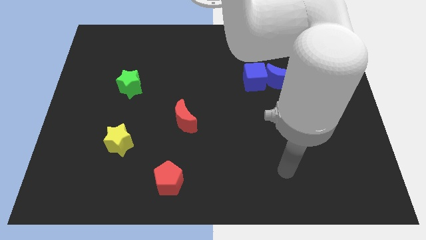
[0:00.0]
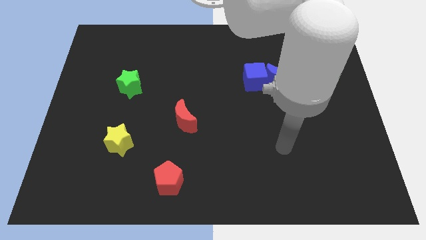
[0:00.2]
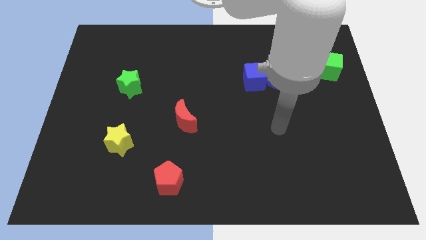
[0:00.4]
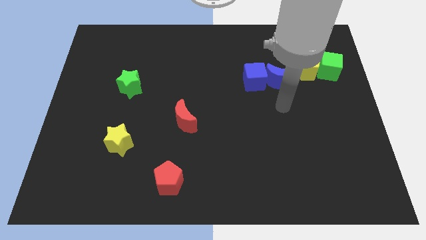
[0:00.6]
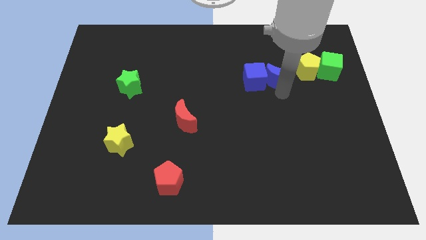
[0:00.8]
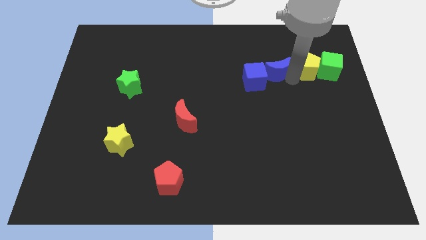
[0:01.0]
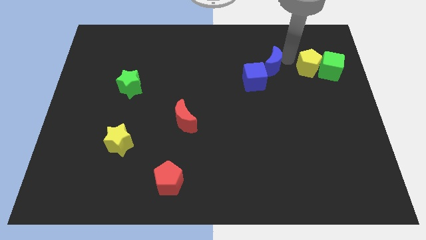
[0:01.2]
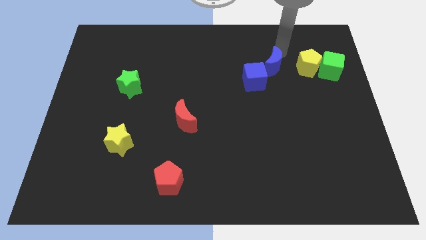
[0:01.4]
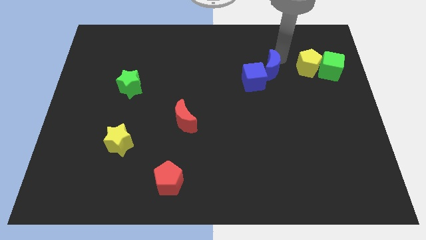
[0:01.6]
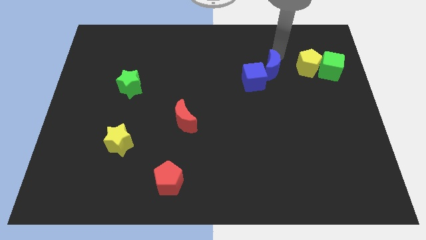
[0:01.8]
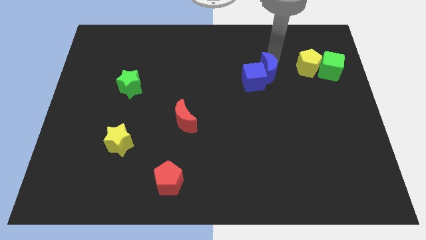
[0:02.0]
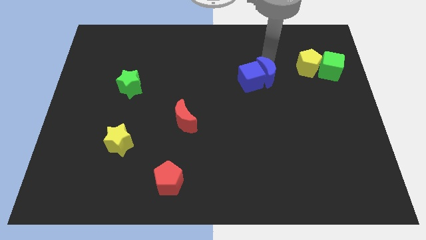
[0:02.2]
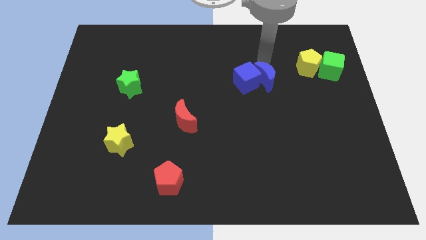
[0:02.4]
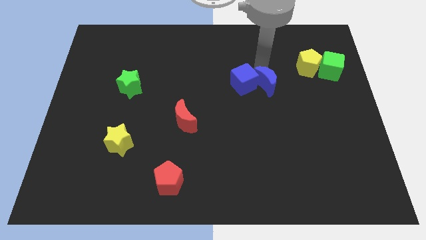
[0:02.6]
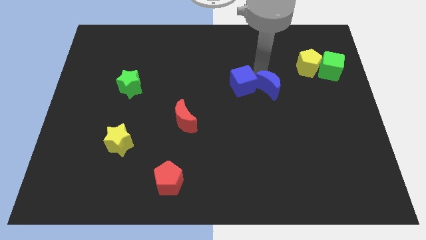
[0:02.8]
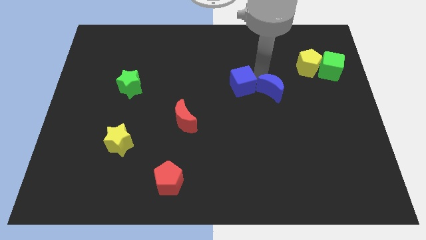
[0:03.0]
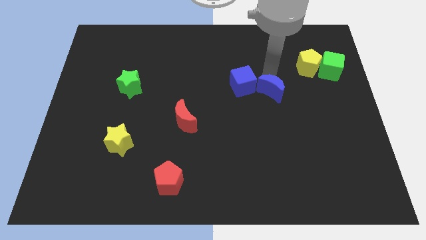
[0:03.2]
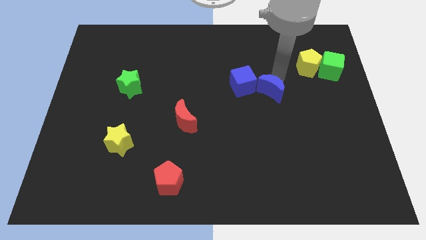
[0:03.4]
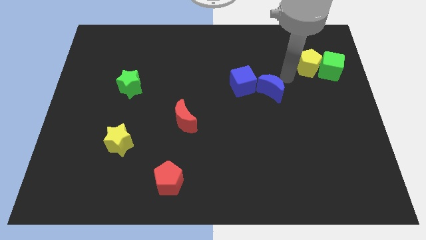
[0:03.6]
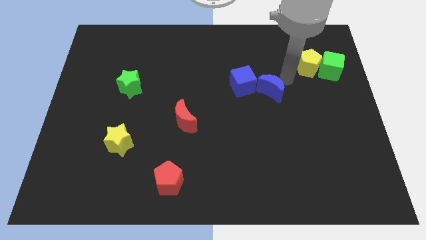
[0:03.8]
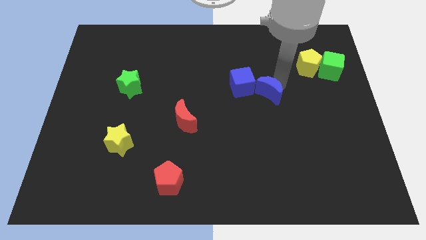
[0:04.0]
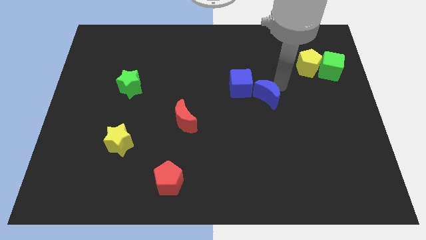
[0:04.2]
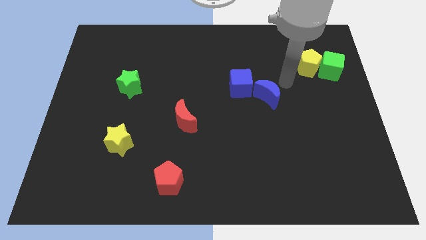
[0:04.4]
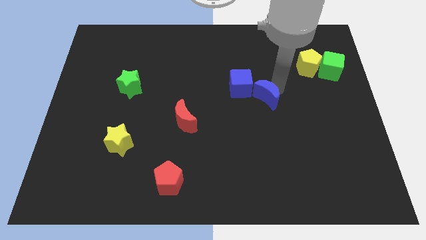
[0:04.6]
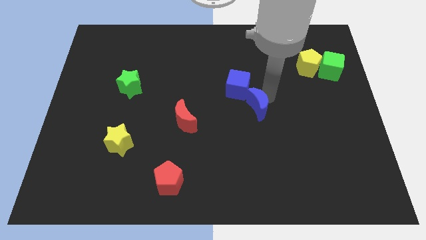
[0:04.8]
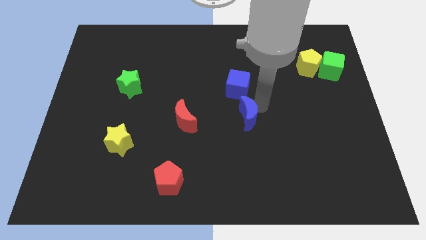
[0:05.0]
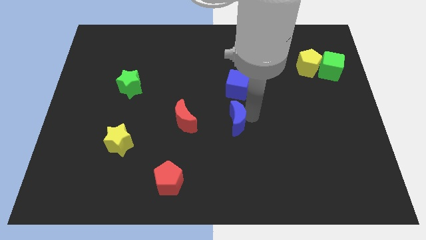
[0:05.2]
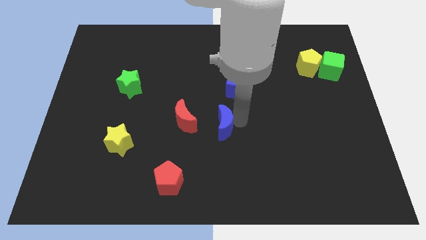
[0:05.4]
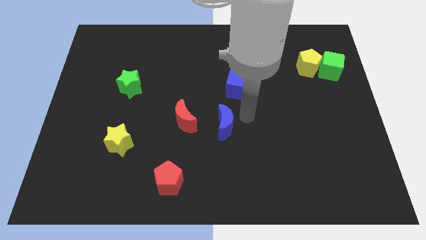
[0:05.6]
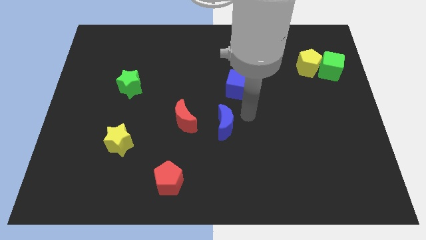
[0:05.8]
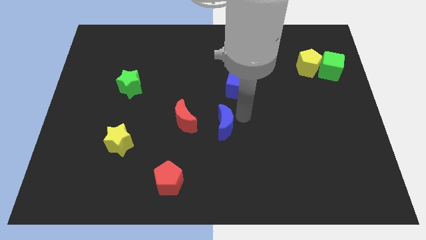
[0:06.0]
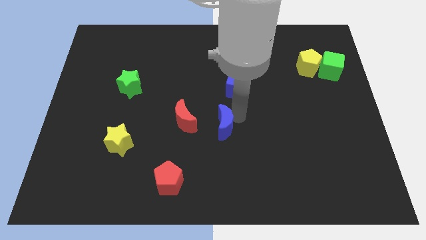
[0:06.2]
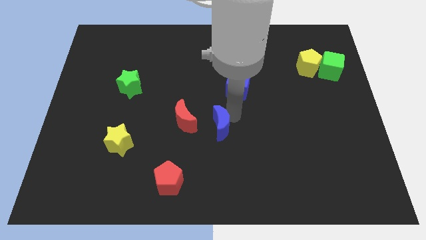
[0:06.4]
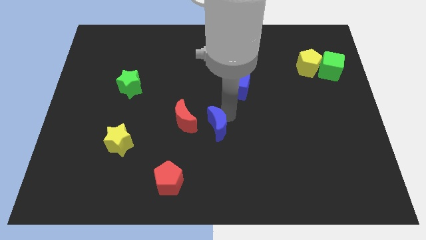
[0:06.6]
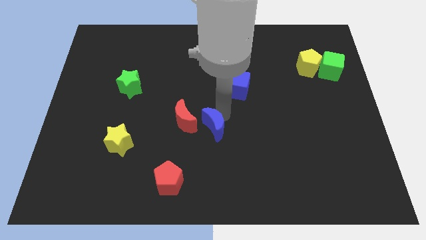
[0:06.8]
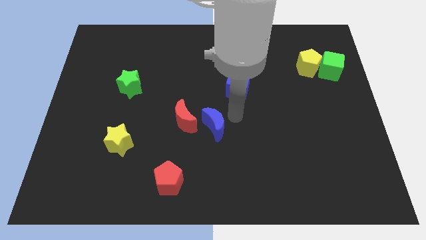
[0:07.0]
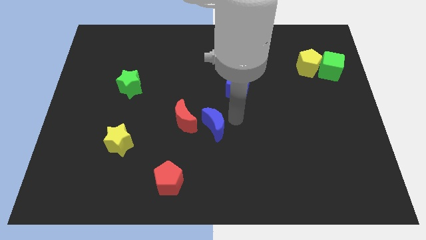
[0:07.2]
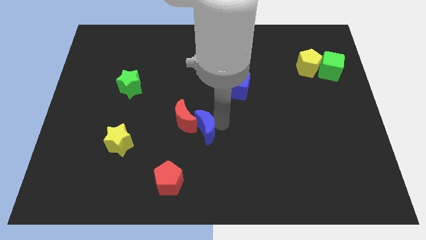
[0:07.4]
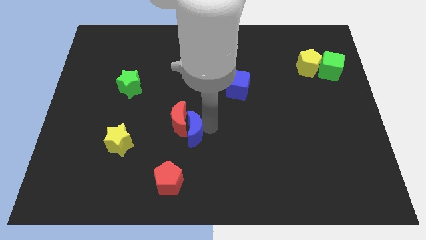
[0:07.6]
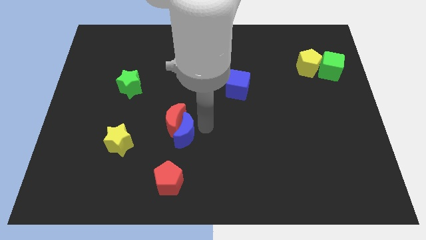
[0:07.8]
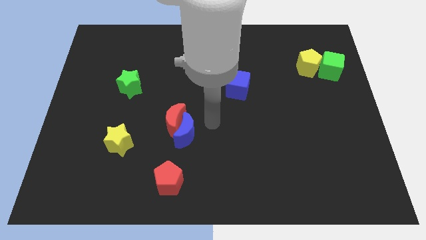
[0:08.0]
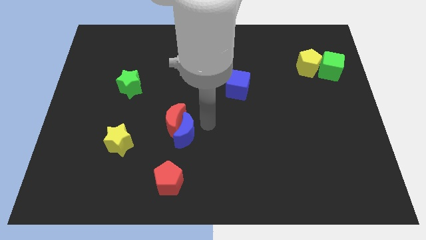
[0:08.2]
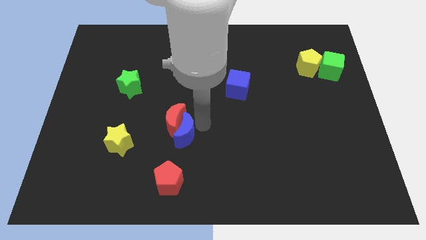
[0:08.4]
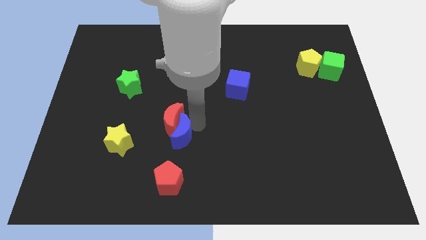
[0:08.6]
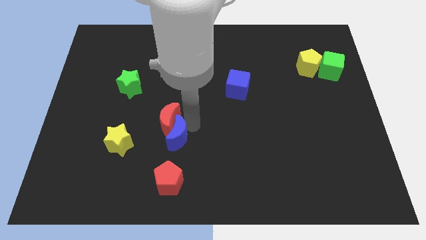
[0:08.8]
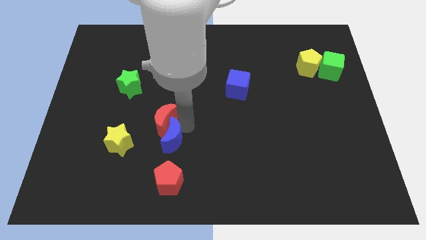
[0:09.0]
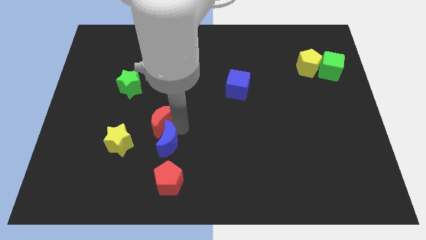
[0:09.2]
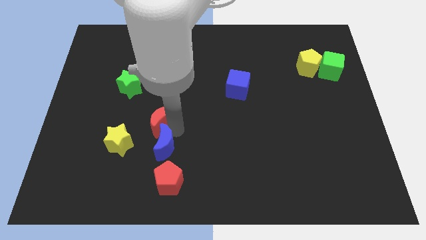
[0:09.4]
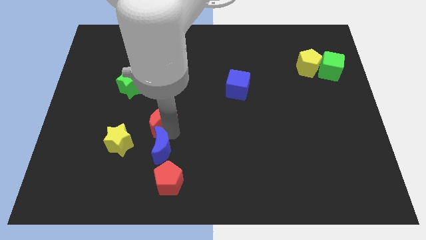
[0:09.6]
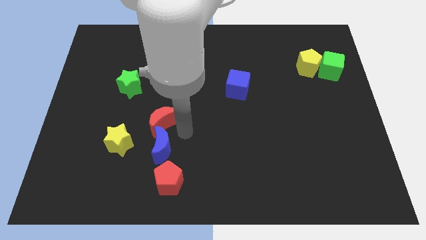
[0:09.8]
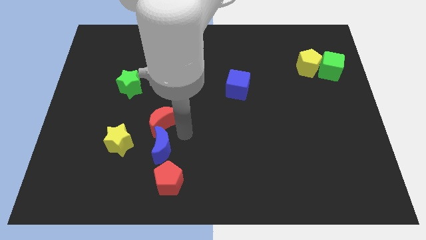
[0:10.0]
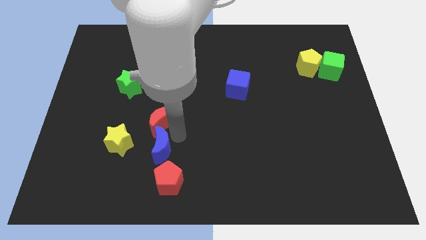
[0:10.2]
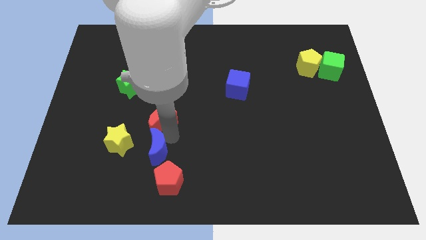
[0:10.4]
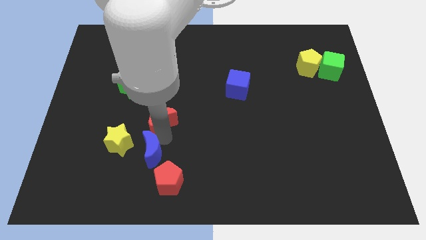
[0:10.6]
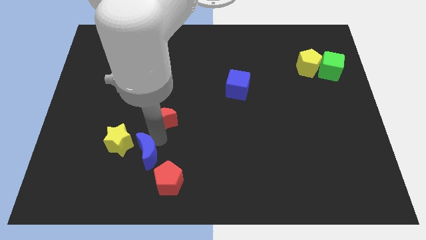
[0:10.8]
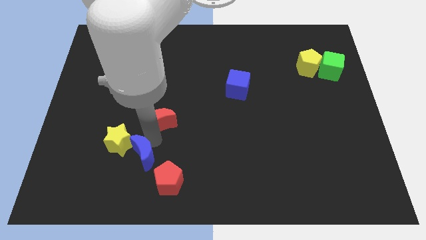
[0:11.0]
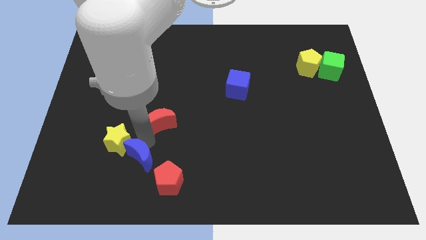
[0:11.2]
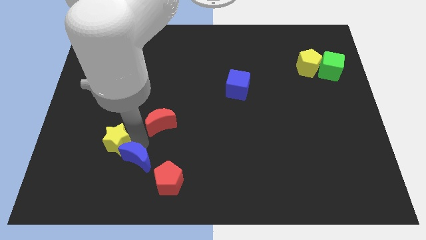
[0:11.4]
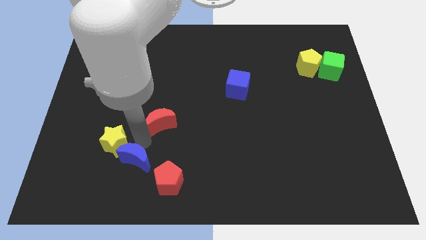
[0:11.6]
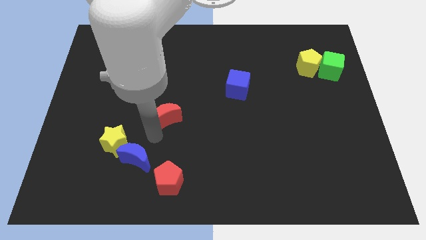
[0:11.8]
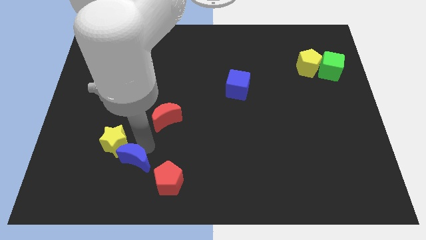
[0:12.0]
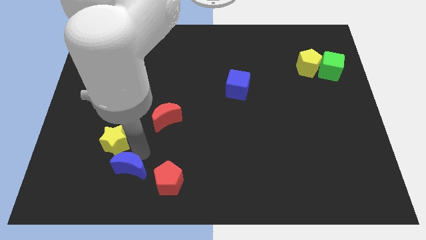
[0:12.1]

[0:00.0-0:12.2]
push the blue moon to the left side of the red pentagon
